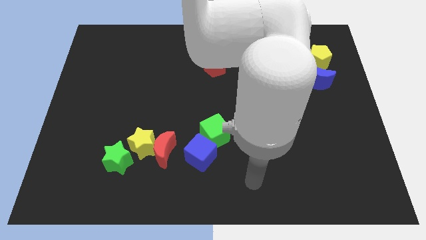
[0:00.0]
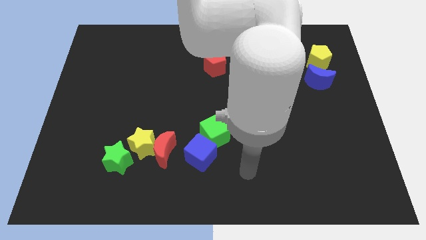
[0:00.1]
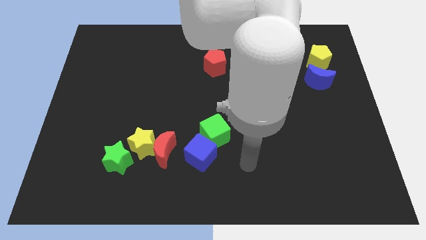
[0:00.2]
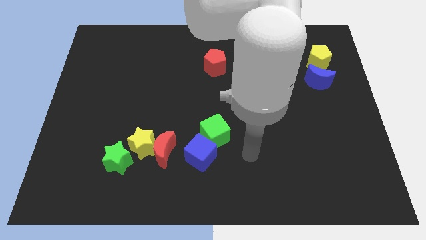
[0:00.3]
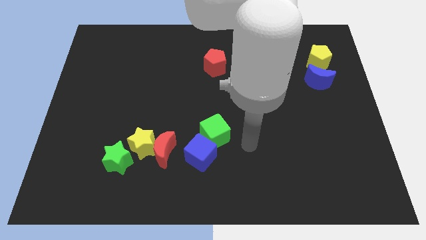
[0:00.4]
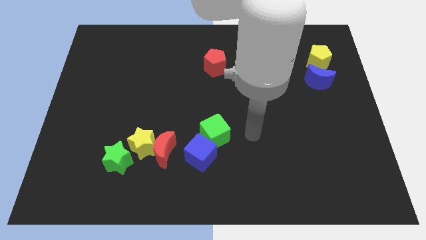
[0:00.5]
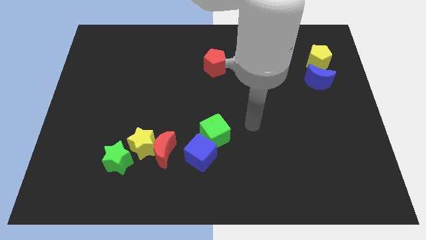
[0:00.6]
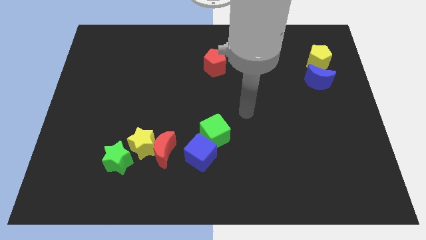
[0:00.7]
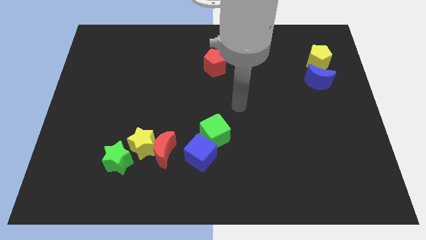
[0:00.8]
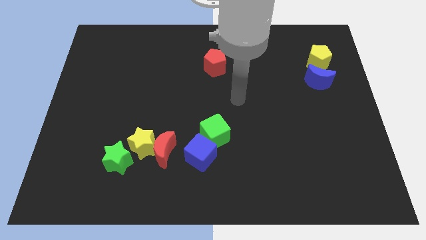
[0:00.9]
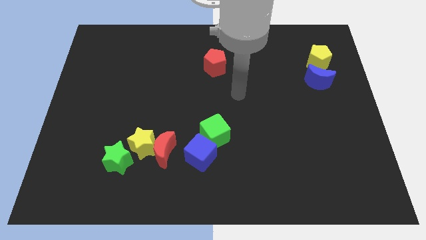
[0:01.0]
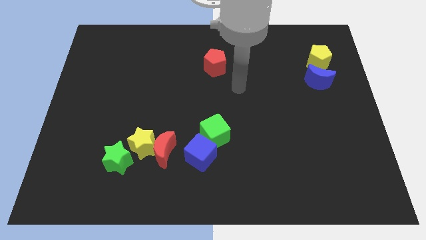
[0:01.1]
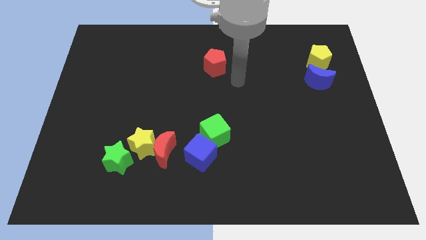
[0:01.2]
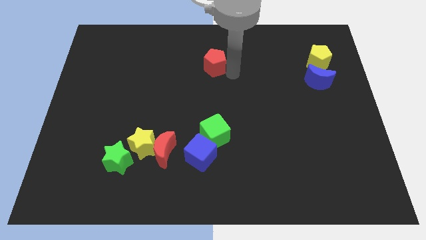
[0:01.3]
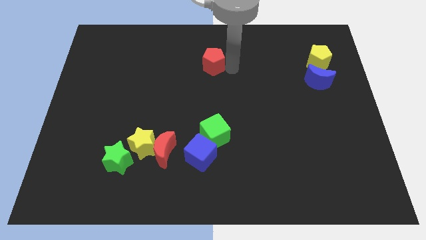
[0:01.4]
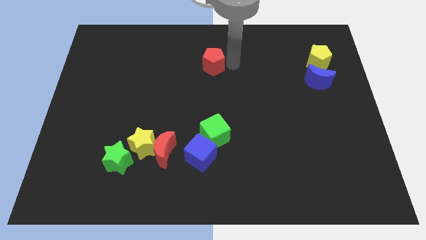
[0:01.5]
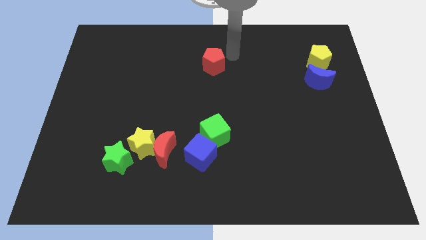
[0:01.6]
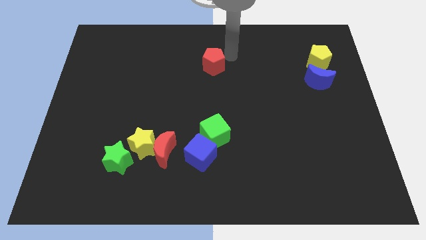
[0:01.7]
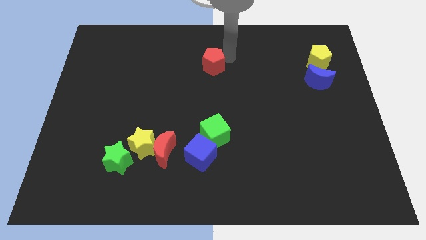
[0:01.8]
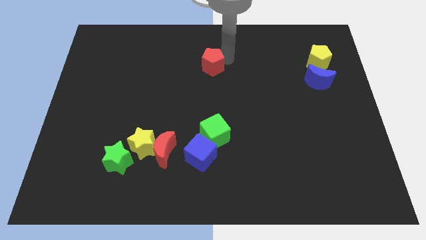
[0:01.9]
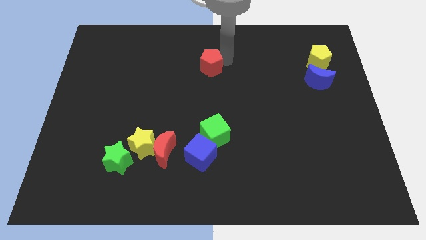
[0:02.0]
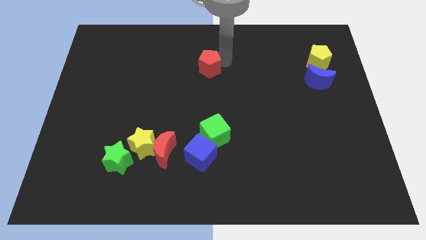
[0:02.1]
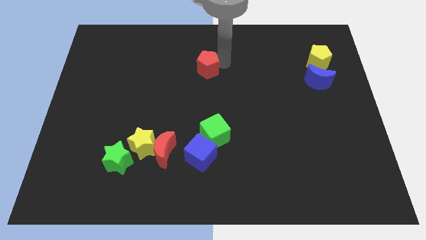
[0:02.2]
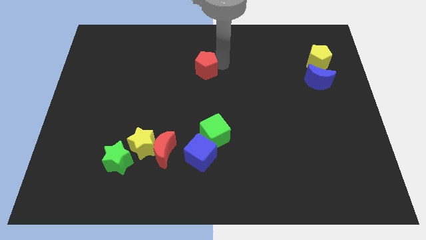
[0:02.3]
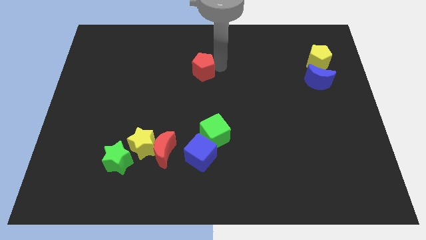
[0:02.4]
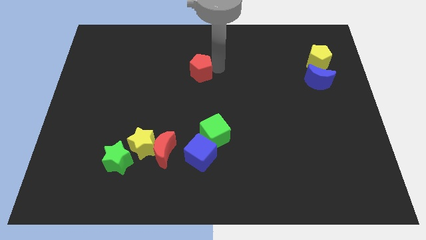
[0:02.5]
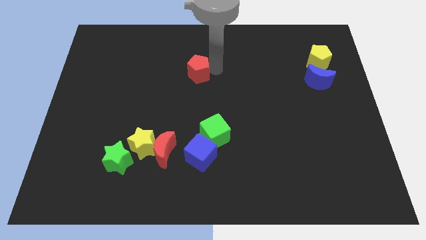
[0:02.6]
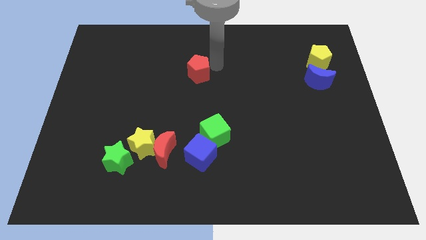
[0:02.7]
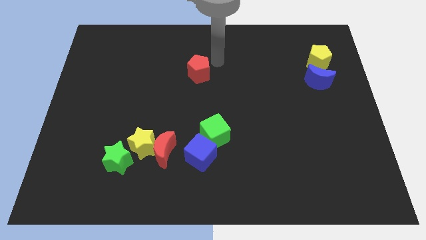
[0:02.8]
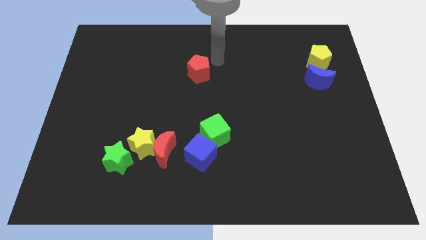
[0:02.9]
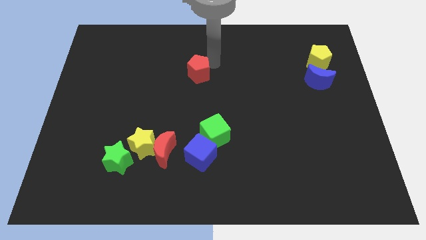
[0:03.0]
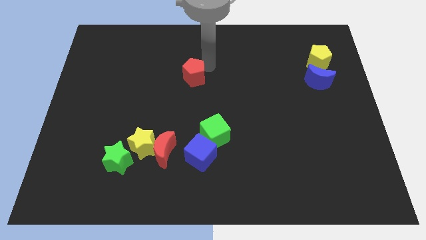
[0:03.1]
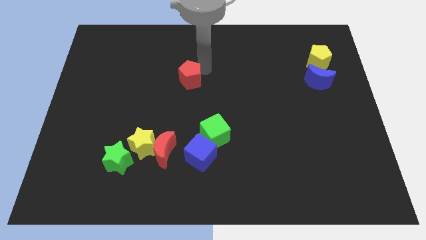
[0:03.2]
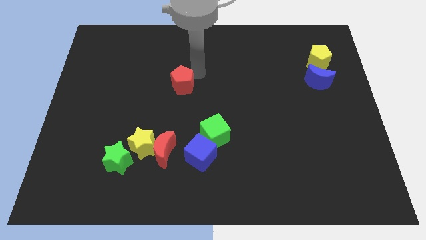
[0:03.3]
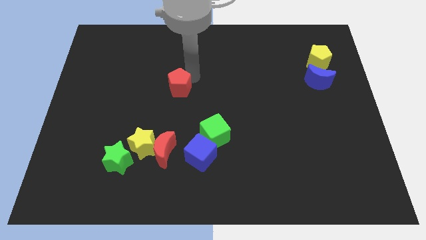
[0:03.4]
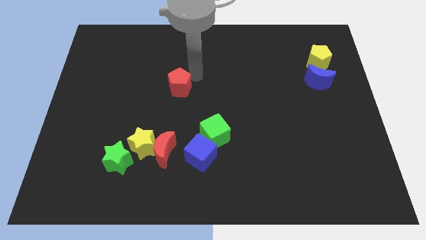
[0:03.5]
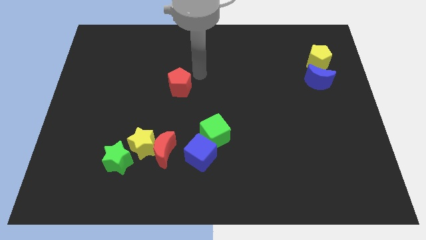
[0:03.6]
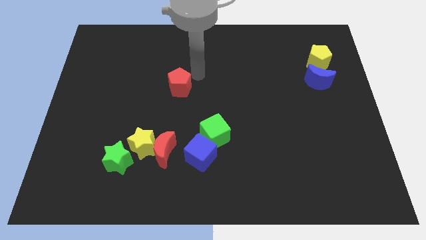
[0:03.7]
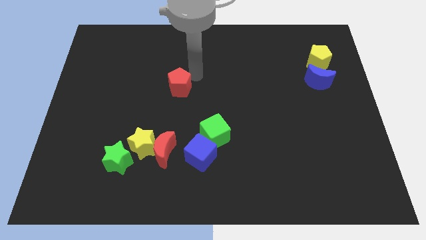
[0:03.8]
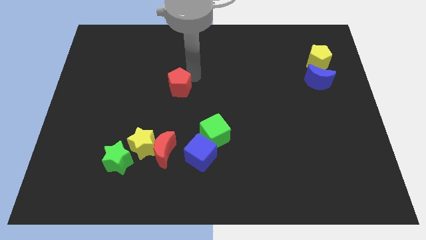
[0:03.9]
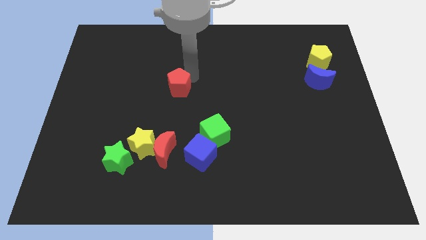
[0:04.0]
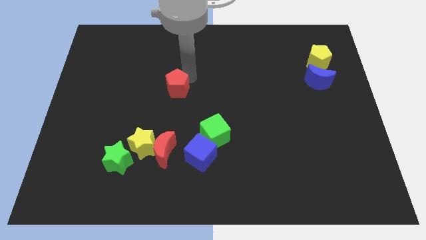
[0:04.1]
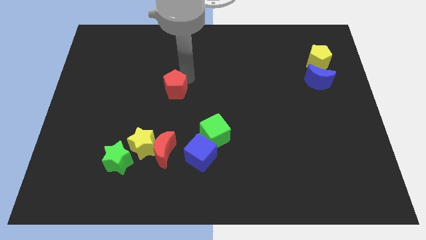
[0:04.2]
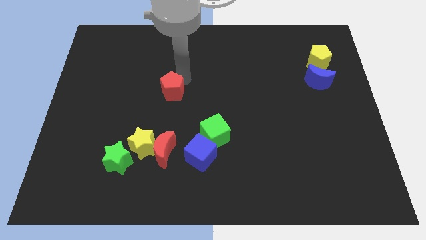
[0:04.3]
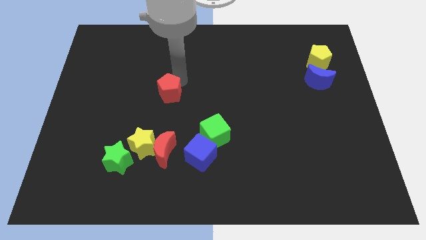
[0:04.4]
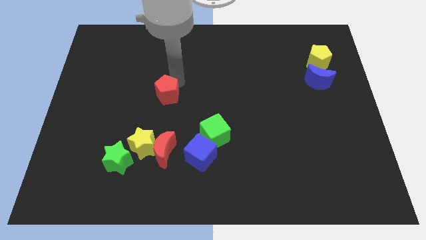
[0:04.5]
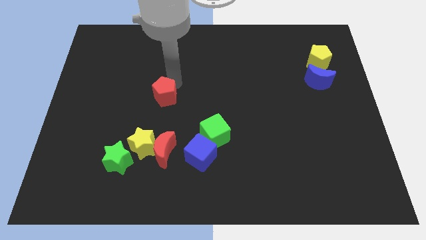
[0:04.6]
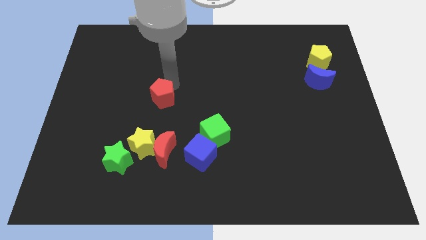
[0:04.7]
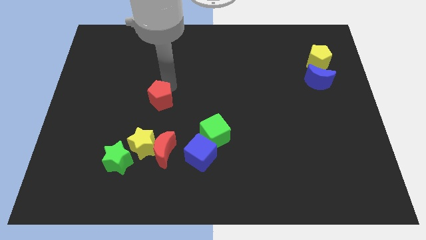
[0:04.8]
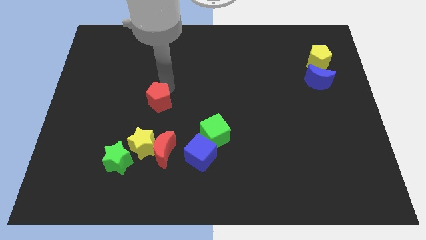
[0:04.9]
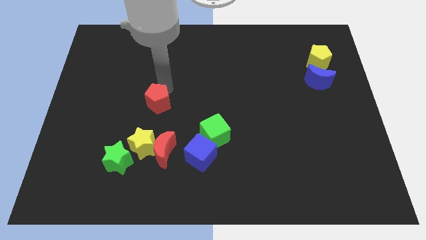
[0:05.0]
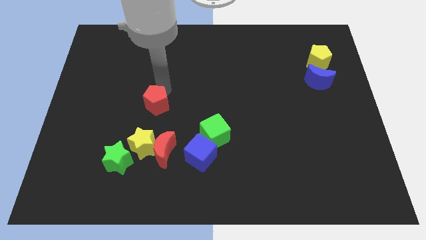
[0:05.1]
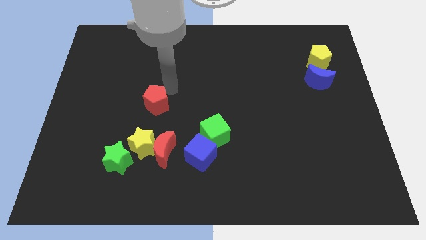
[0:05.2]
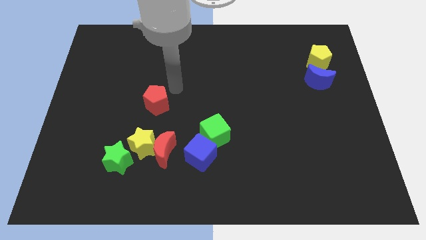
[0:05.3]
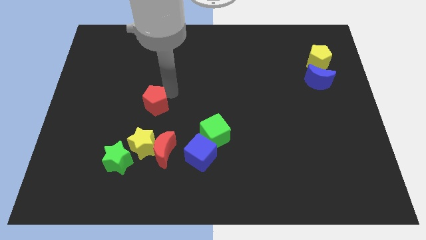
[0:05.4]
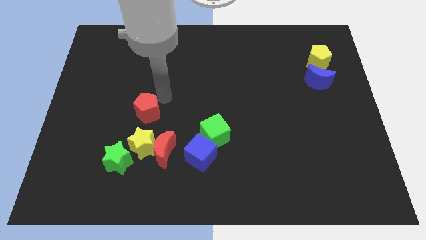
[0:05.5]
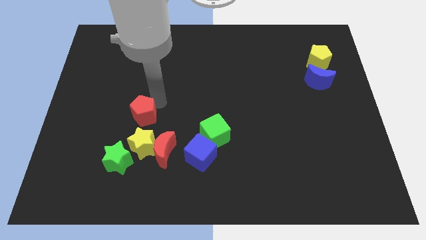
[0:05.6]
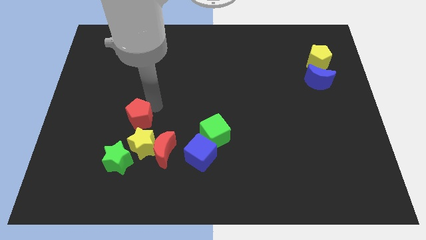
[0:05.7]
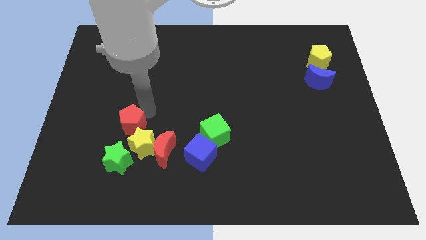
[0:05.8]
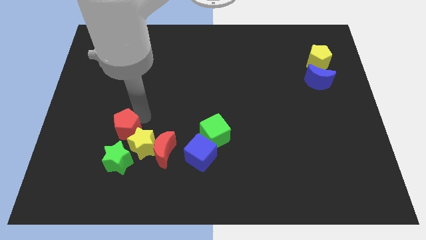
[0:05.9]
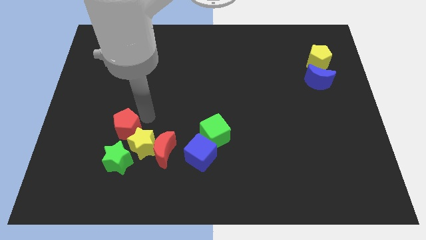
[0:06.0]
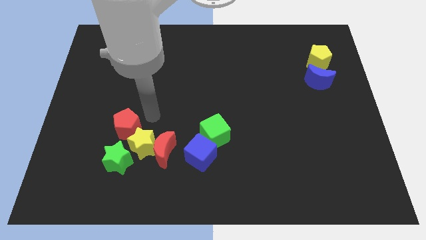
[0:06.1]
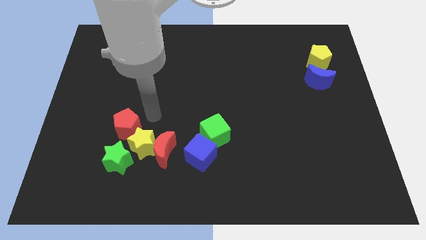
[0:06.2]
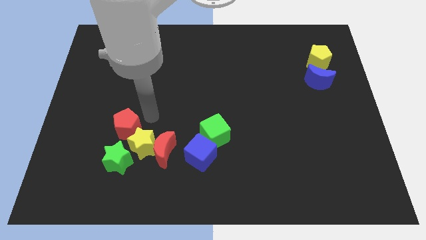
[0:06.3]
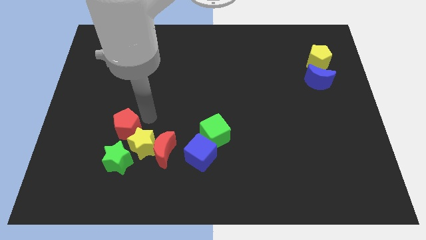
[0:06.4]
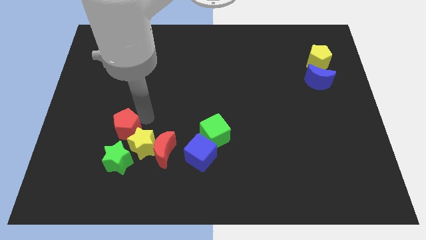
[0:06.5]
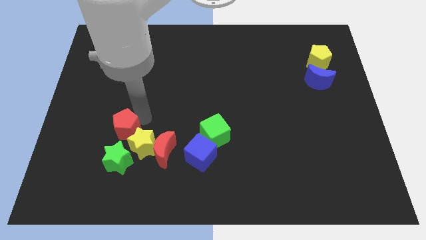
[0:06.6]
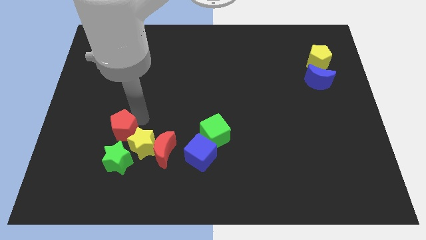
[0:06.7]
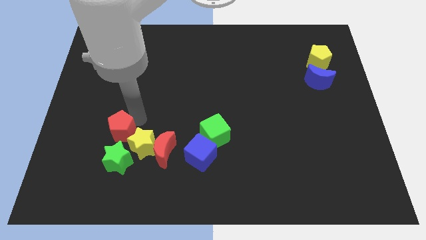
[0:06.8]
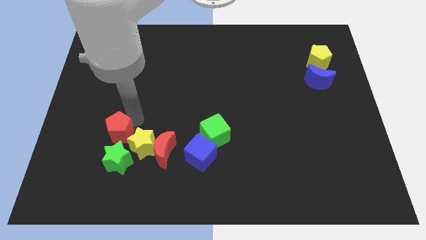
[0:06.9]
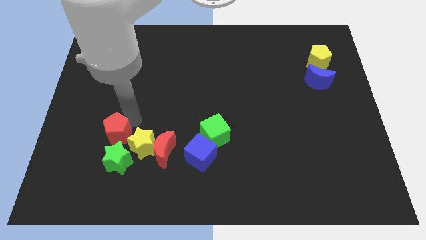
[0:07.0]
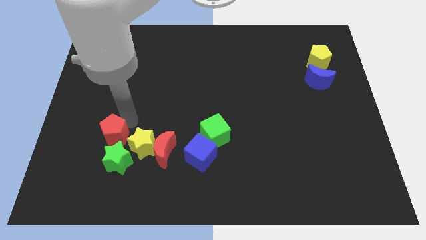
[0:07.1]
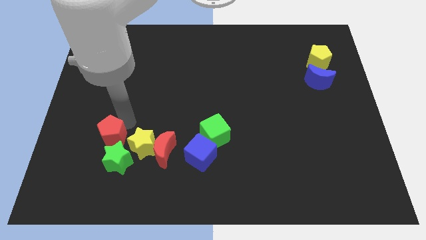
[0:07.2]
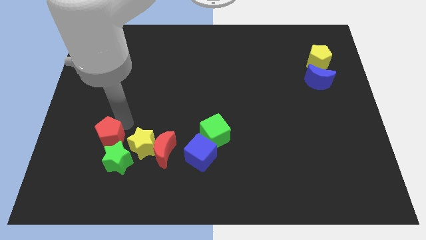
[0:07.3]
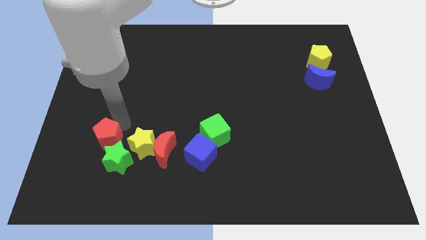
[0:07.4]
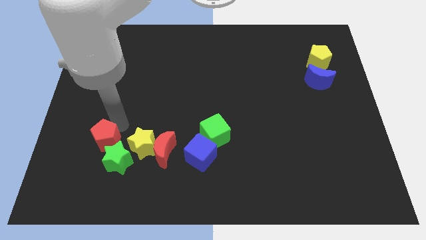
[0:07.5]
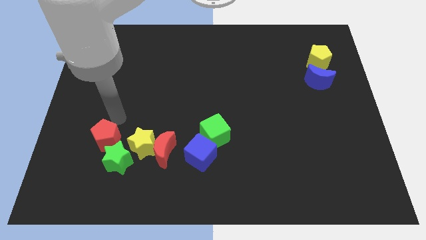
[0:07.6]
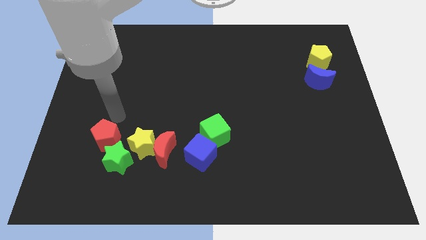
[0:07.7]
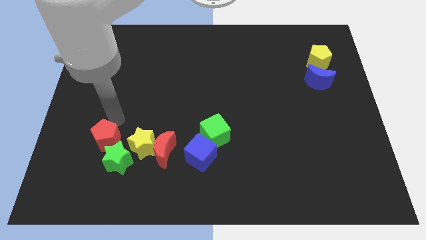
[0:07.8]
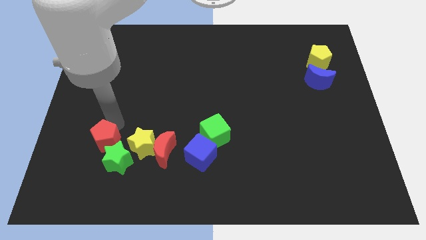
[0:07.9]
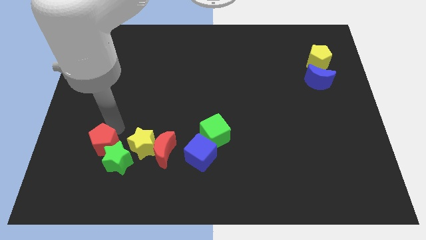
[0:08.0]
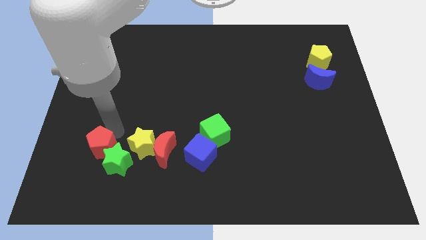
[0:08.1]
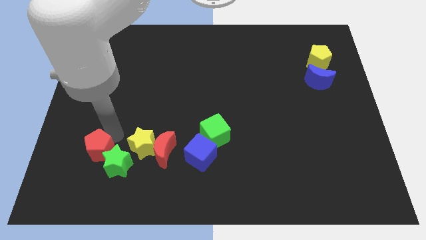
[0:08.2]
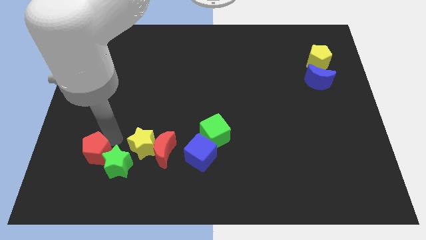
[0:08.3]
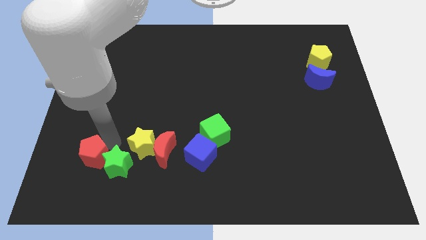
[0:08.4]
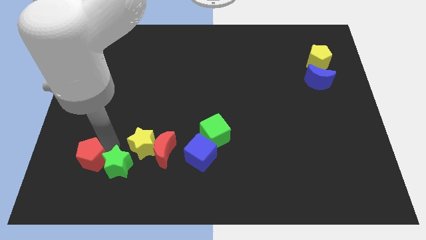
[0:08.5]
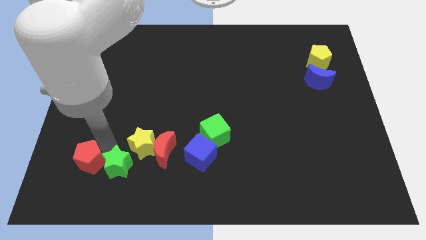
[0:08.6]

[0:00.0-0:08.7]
push the red pentagon to the bottom left of the green star
